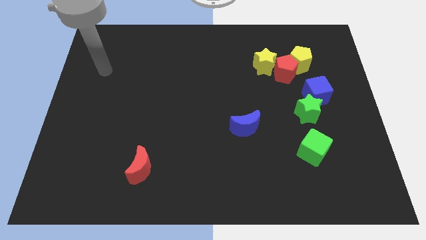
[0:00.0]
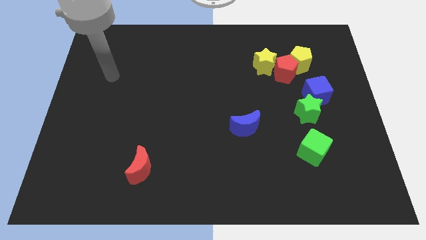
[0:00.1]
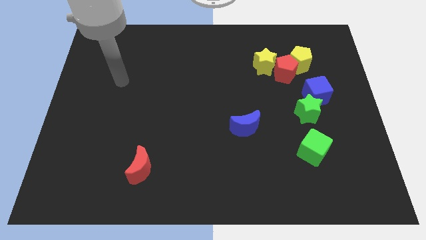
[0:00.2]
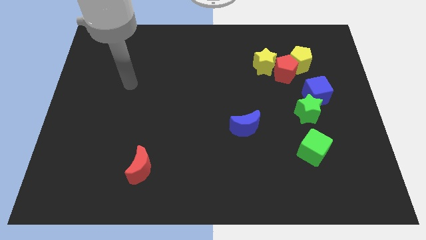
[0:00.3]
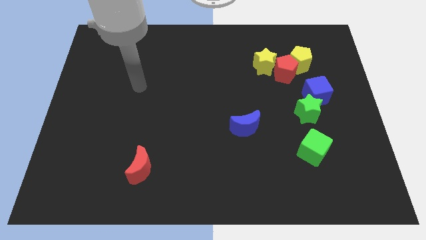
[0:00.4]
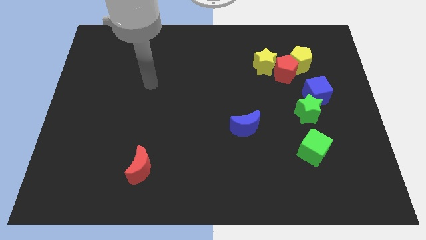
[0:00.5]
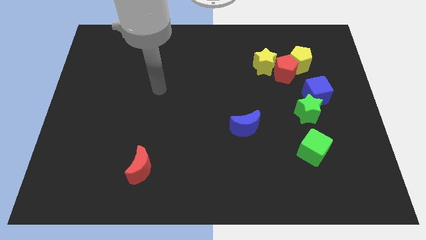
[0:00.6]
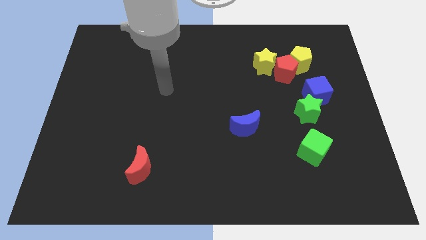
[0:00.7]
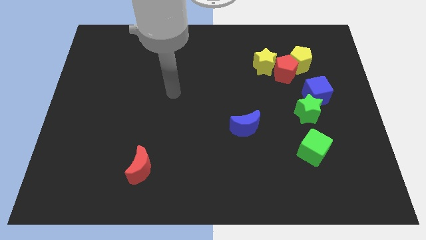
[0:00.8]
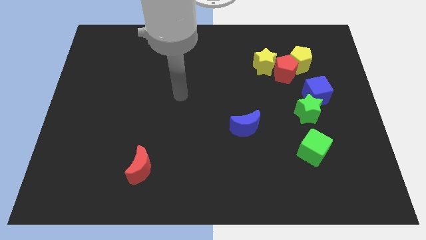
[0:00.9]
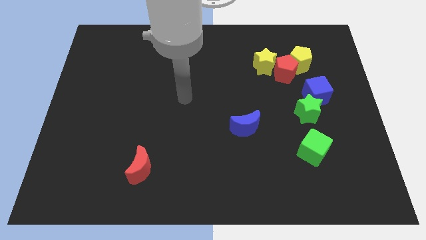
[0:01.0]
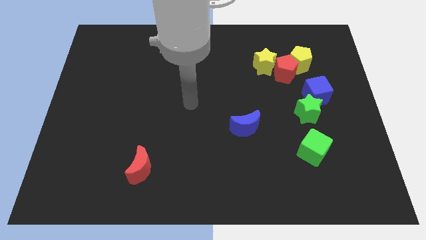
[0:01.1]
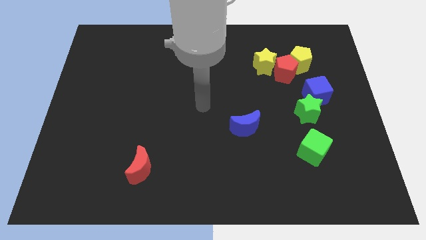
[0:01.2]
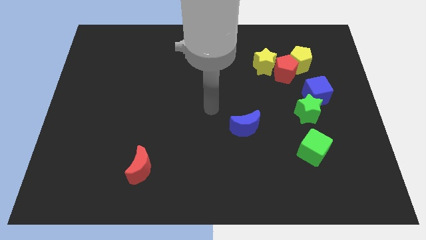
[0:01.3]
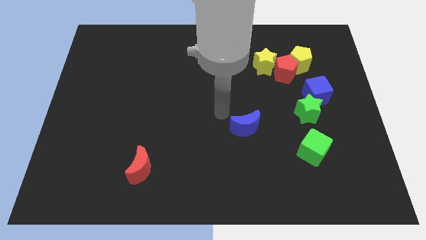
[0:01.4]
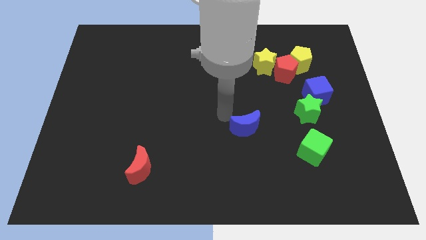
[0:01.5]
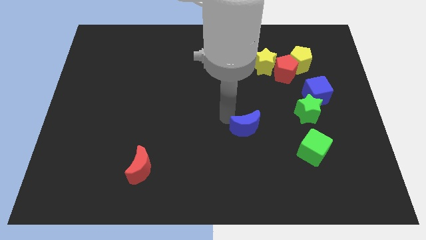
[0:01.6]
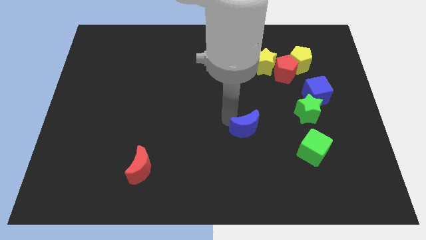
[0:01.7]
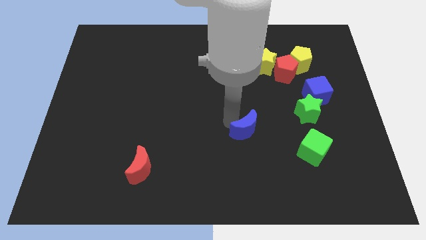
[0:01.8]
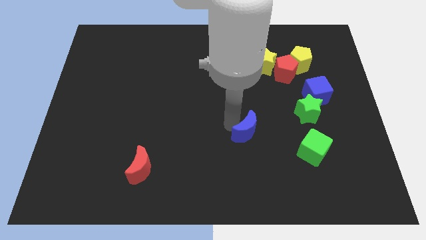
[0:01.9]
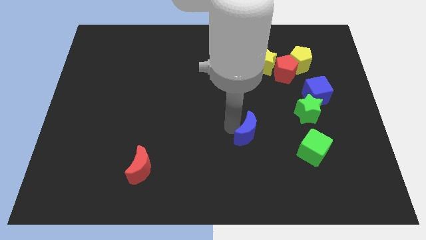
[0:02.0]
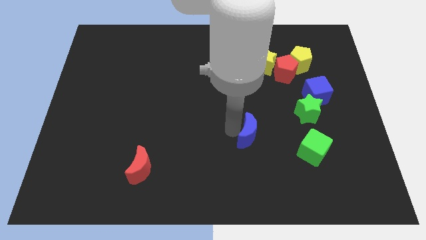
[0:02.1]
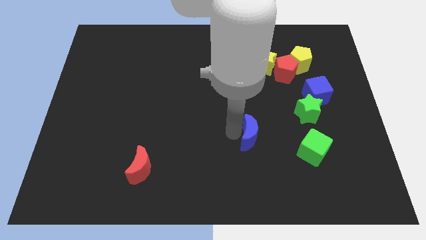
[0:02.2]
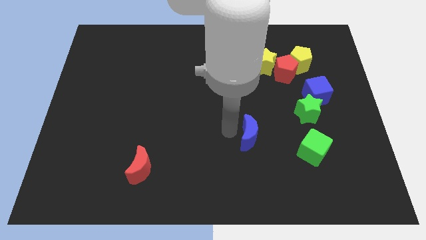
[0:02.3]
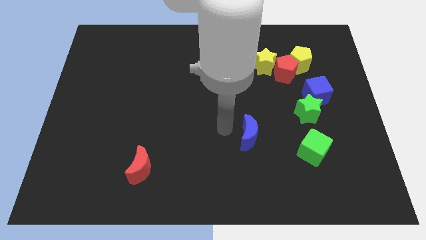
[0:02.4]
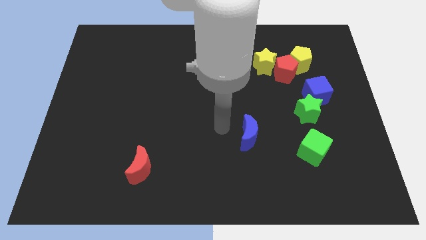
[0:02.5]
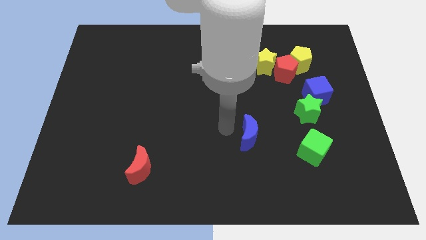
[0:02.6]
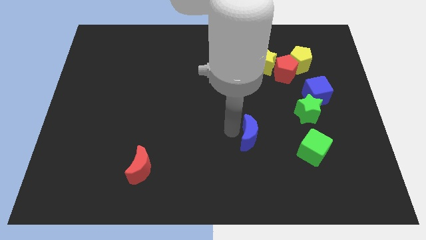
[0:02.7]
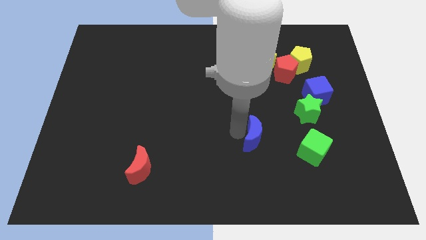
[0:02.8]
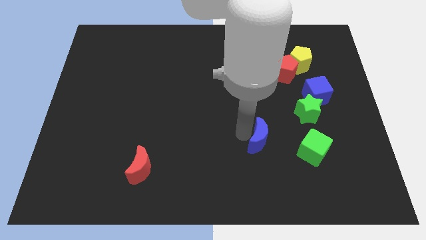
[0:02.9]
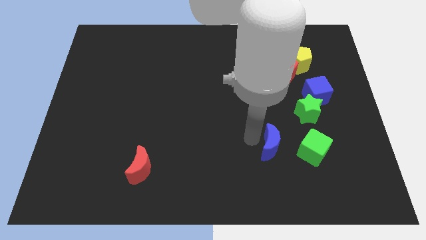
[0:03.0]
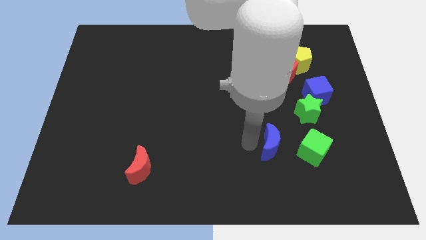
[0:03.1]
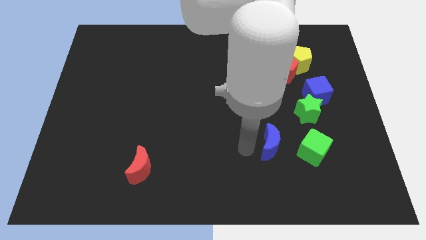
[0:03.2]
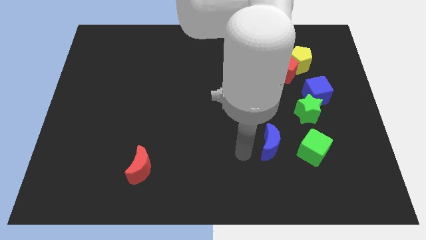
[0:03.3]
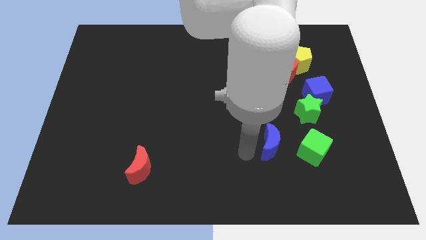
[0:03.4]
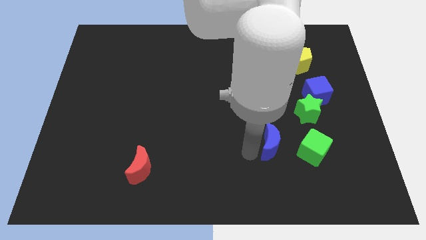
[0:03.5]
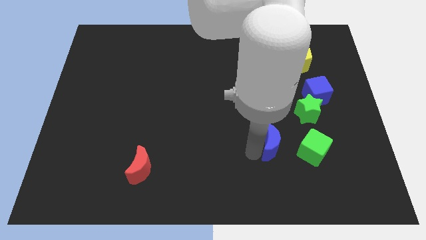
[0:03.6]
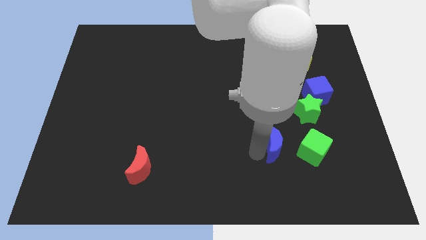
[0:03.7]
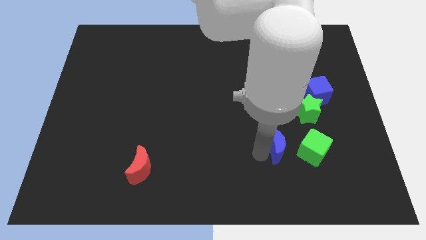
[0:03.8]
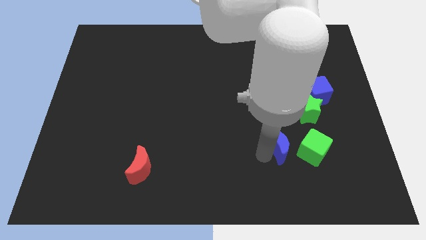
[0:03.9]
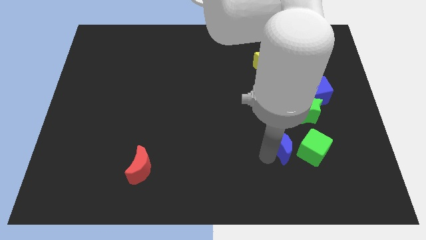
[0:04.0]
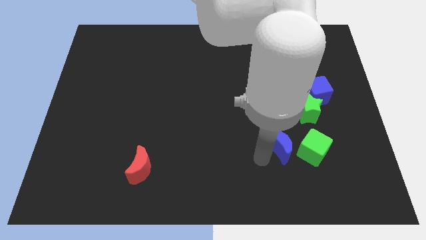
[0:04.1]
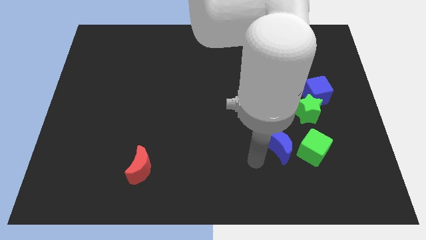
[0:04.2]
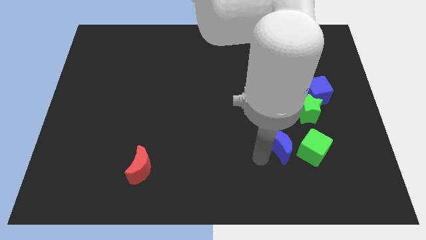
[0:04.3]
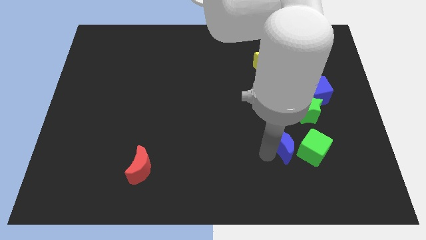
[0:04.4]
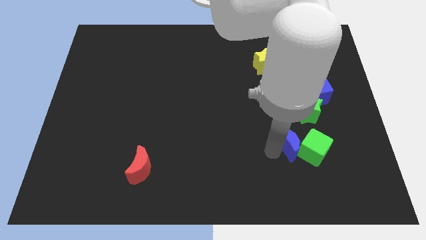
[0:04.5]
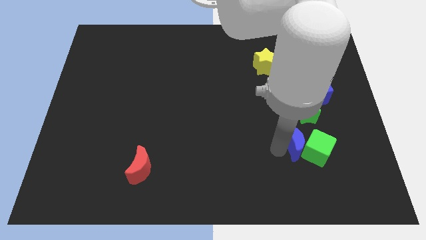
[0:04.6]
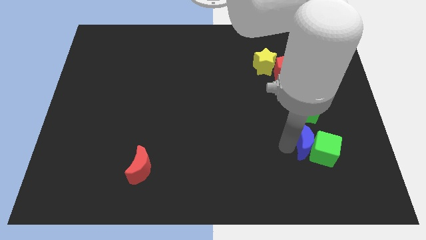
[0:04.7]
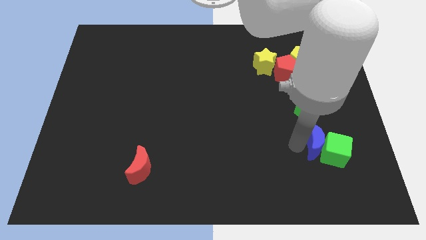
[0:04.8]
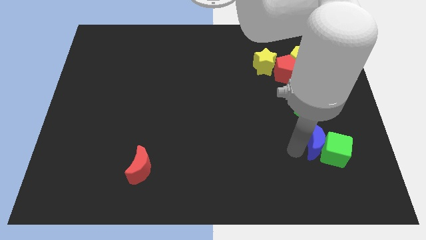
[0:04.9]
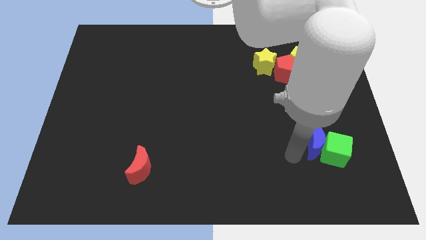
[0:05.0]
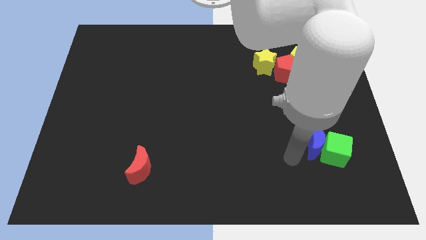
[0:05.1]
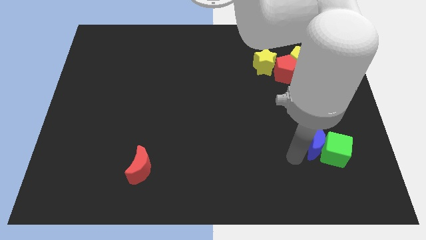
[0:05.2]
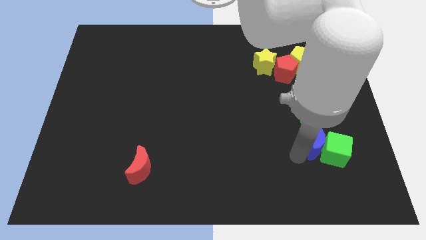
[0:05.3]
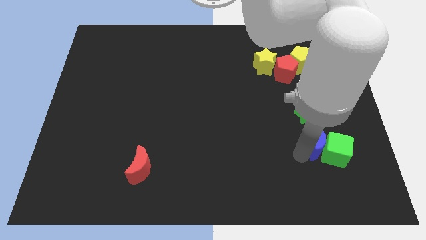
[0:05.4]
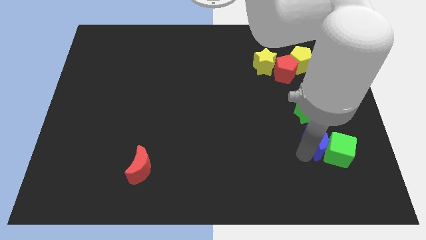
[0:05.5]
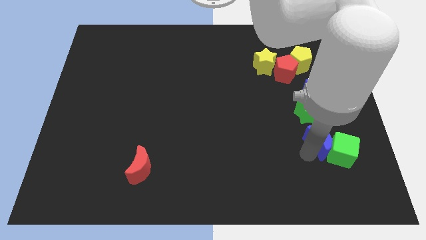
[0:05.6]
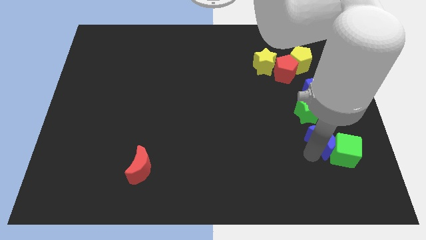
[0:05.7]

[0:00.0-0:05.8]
slide the blue moon diagonally down and to the right of the green star
